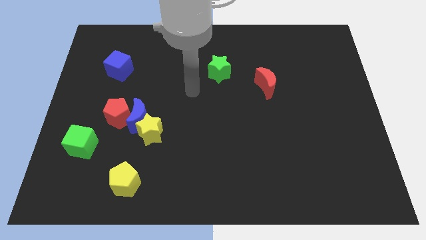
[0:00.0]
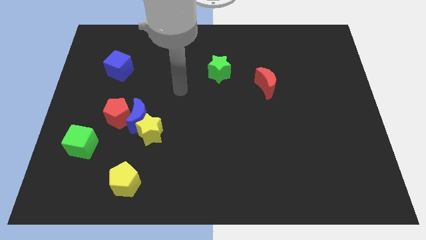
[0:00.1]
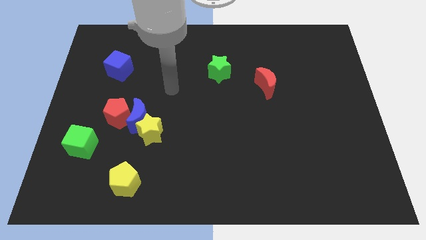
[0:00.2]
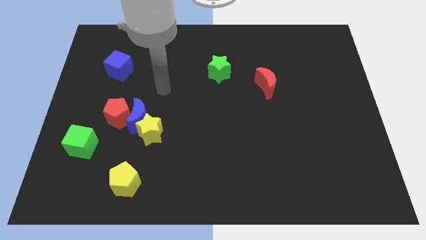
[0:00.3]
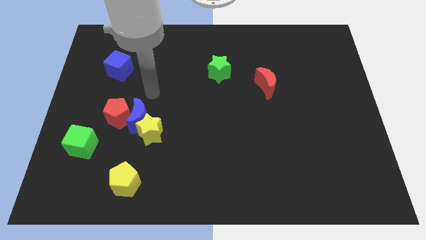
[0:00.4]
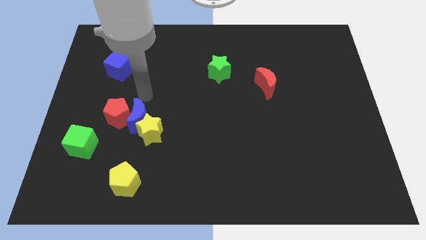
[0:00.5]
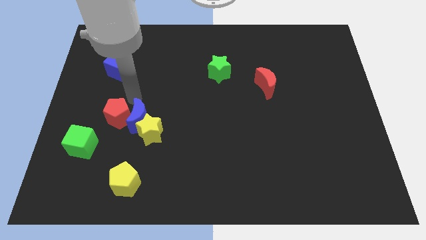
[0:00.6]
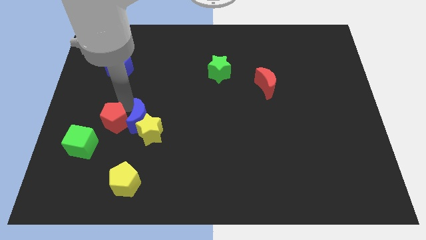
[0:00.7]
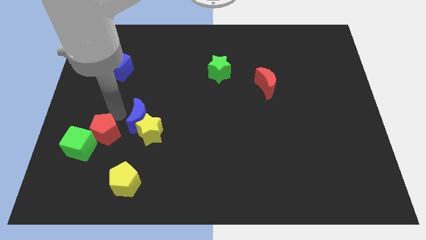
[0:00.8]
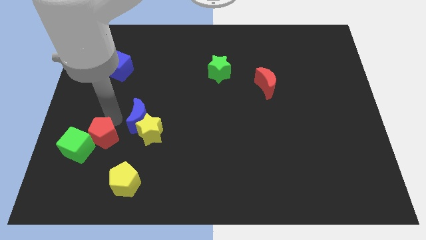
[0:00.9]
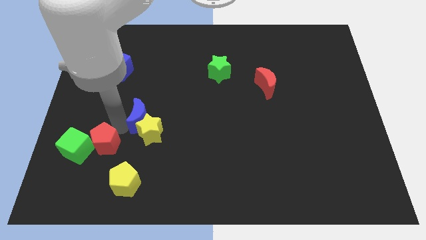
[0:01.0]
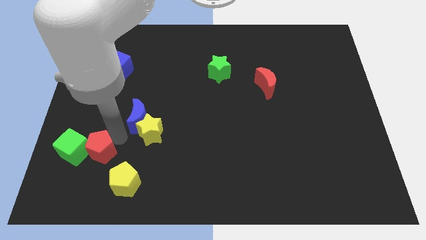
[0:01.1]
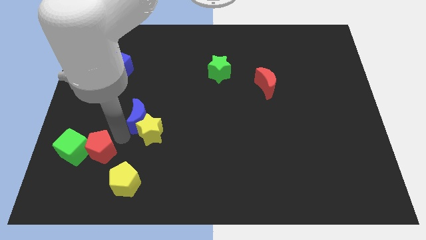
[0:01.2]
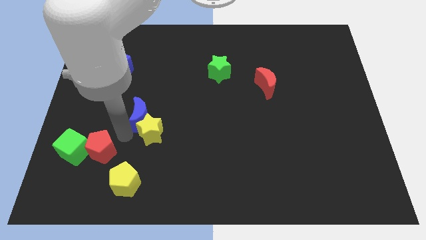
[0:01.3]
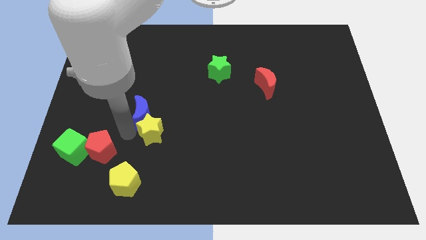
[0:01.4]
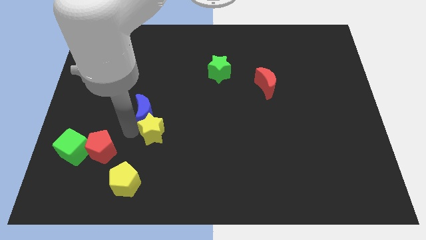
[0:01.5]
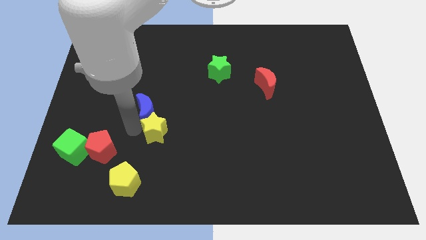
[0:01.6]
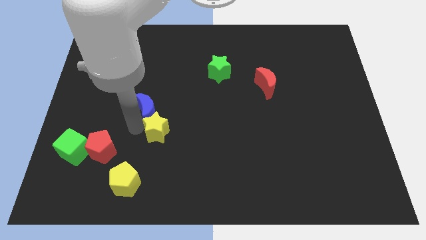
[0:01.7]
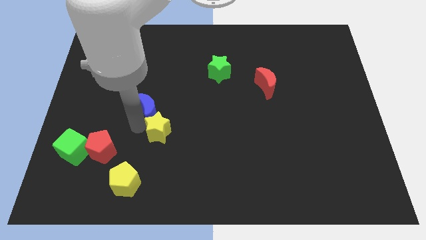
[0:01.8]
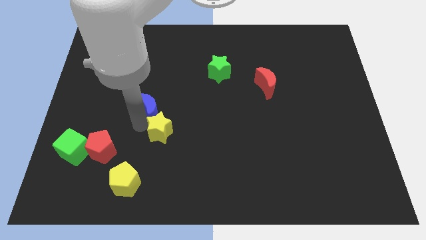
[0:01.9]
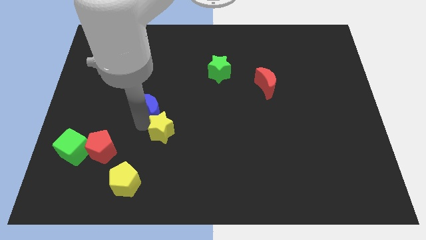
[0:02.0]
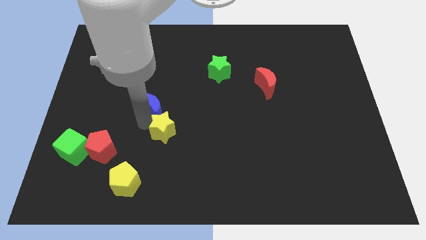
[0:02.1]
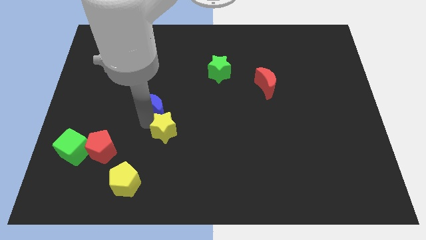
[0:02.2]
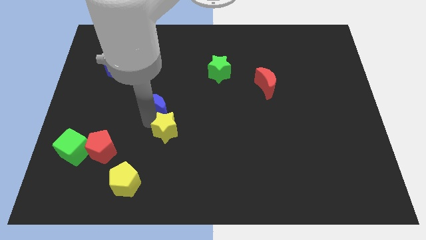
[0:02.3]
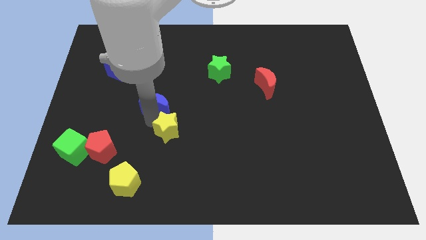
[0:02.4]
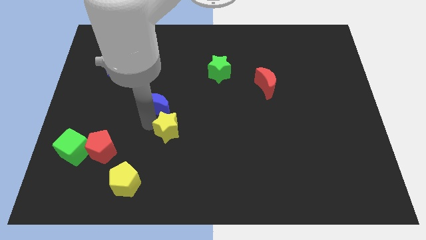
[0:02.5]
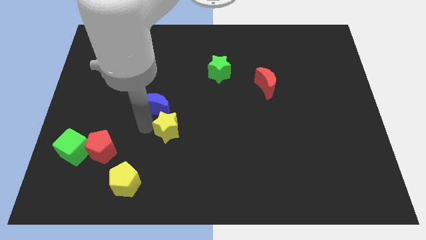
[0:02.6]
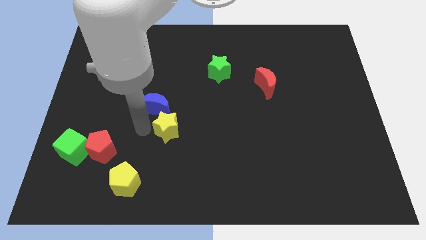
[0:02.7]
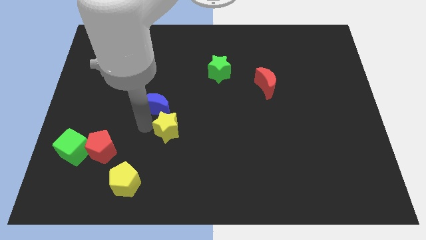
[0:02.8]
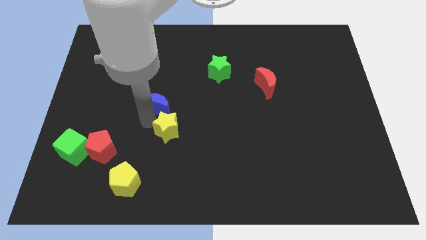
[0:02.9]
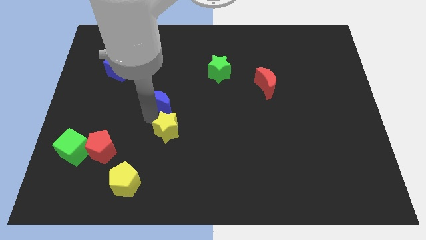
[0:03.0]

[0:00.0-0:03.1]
pull the blue moon apart from the yellow star and red pentagon

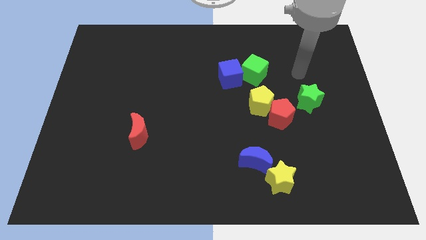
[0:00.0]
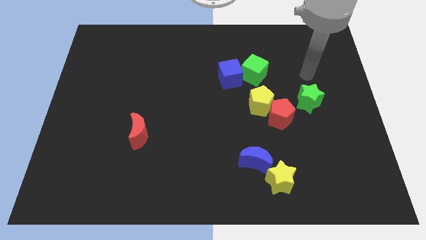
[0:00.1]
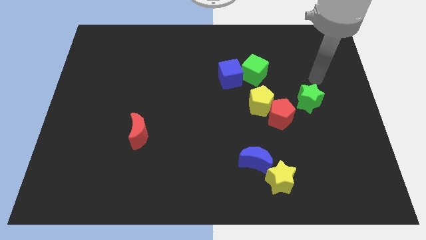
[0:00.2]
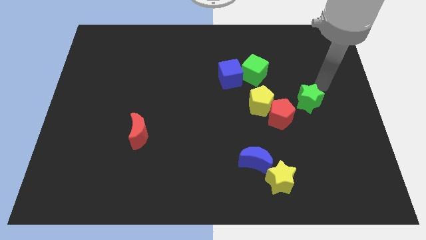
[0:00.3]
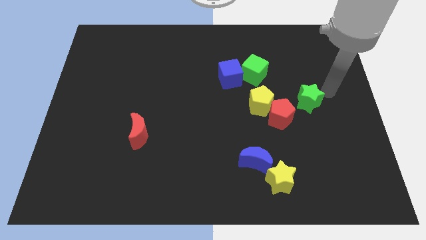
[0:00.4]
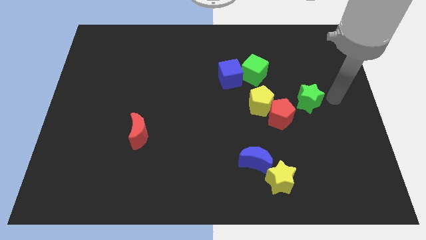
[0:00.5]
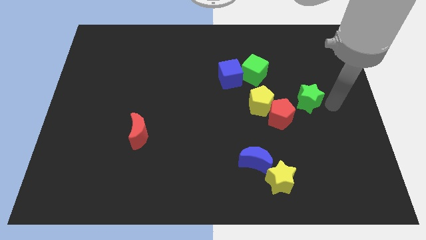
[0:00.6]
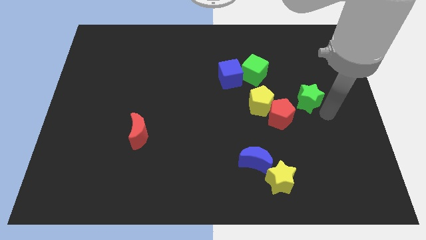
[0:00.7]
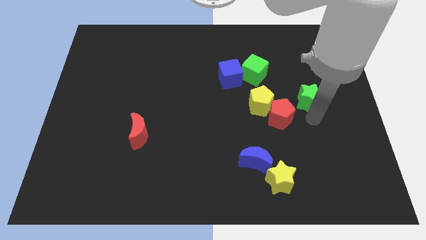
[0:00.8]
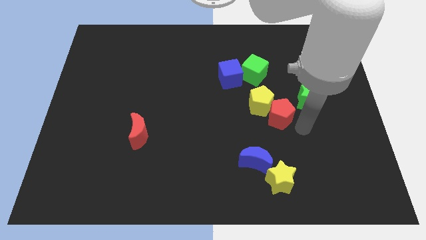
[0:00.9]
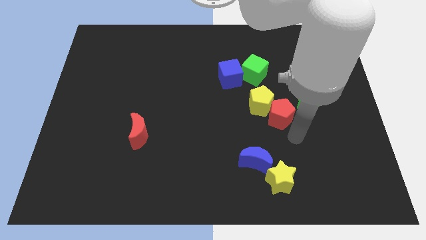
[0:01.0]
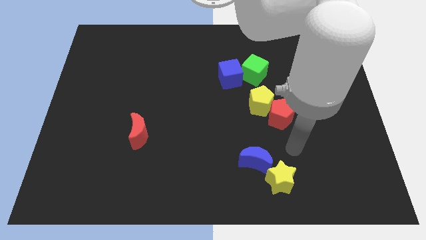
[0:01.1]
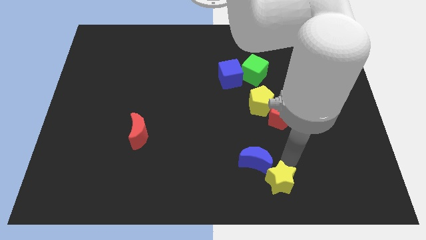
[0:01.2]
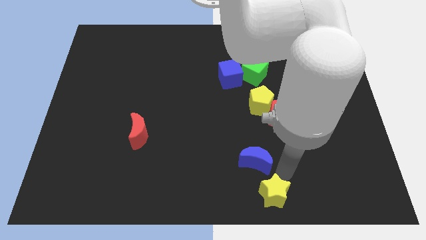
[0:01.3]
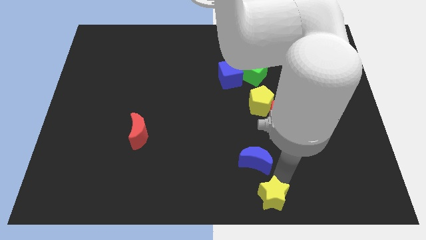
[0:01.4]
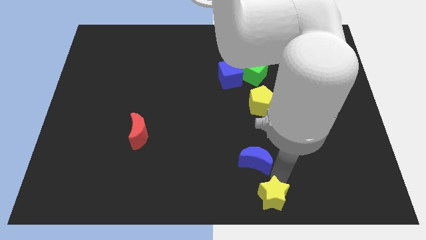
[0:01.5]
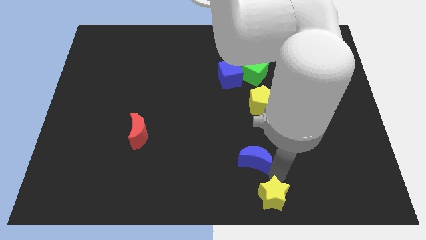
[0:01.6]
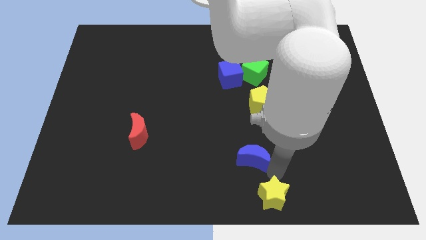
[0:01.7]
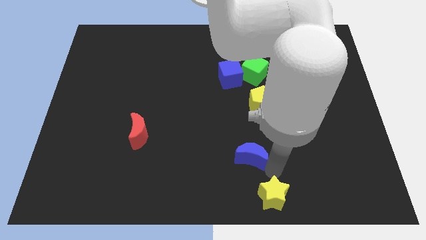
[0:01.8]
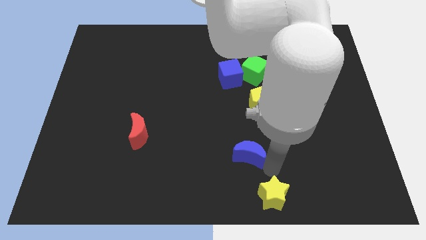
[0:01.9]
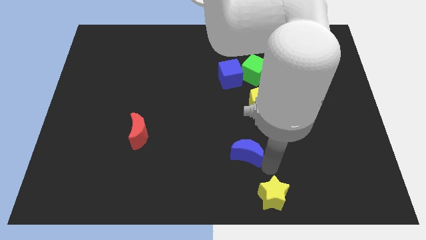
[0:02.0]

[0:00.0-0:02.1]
move the blue moon away from the yellow star

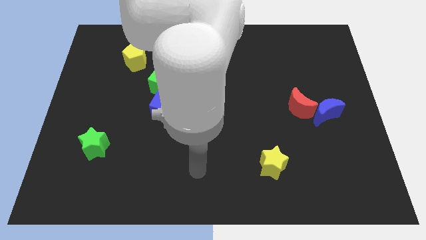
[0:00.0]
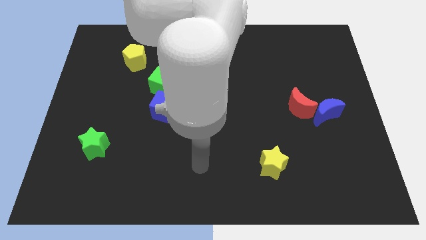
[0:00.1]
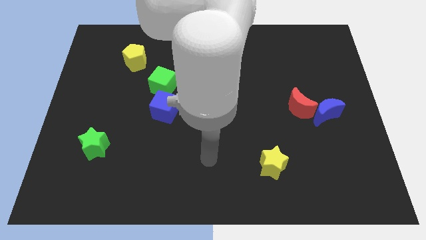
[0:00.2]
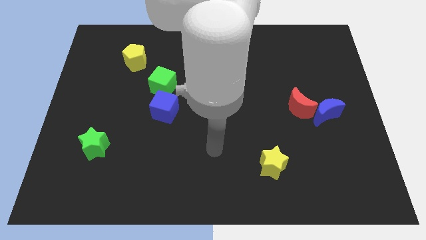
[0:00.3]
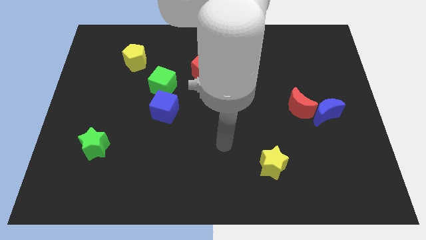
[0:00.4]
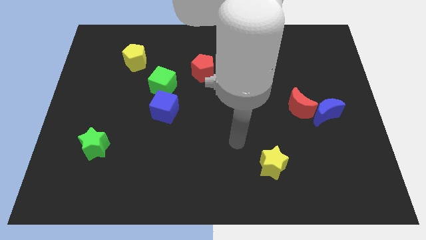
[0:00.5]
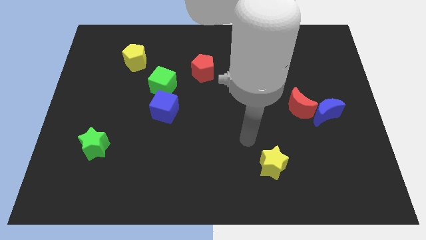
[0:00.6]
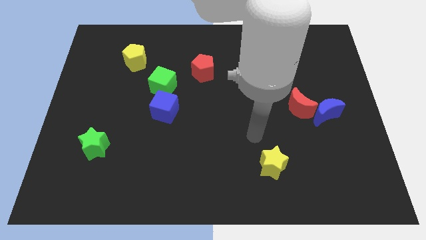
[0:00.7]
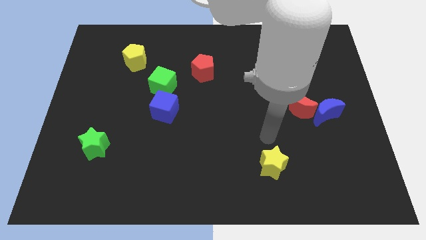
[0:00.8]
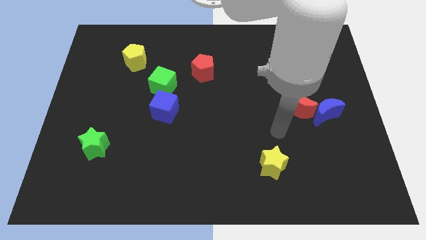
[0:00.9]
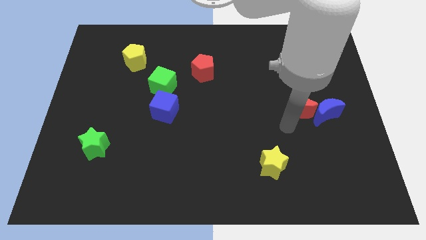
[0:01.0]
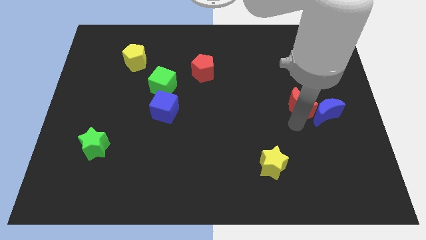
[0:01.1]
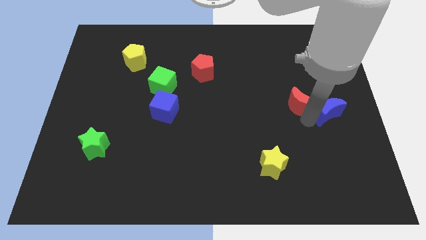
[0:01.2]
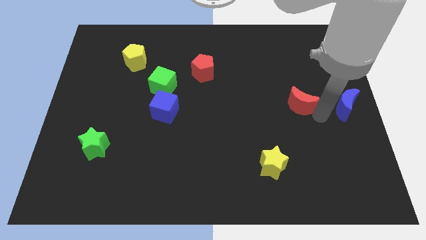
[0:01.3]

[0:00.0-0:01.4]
separate the red moon from the blue moon

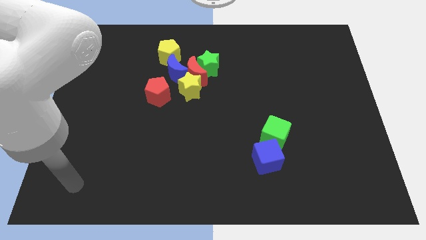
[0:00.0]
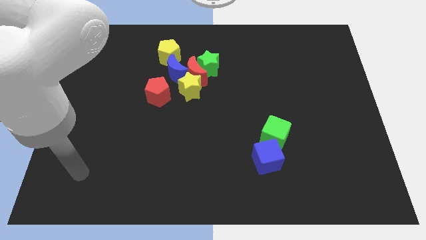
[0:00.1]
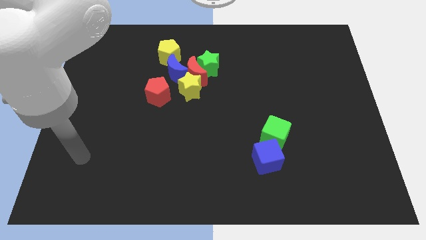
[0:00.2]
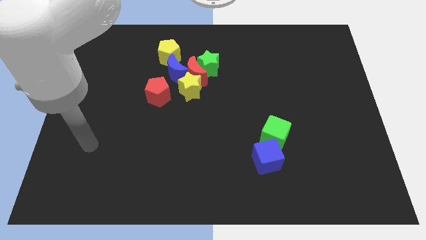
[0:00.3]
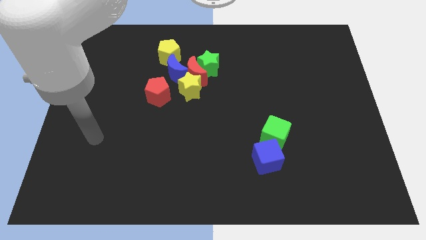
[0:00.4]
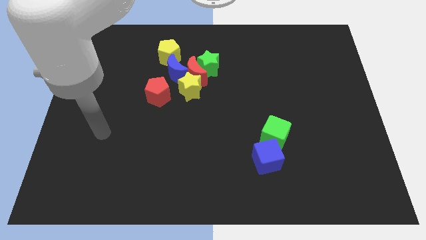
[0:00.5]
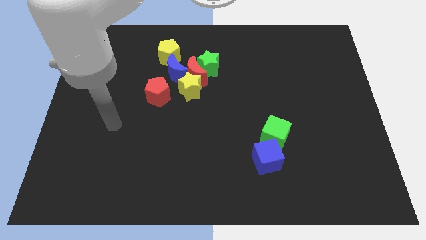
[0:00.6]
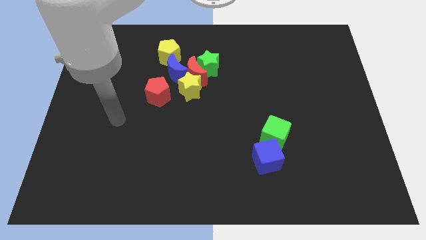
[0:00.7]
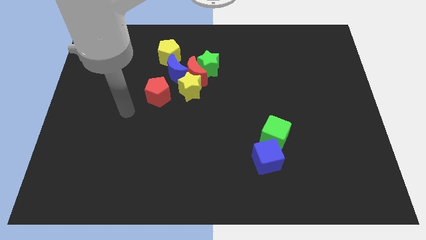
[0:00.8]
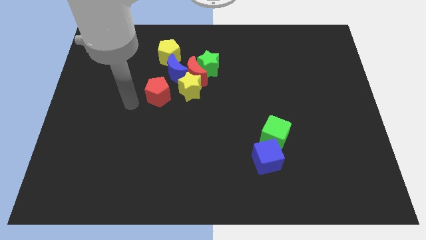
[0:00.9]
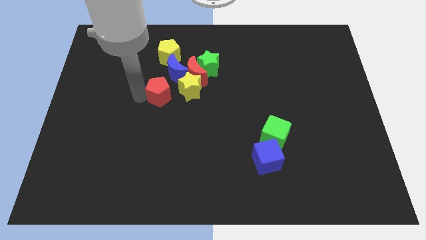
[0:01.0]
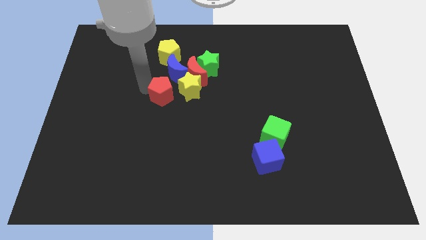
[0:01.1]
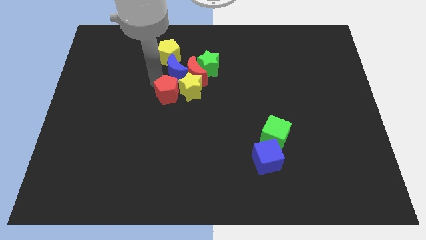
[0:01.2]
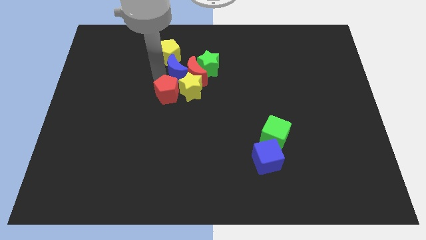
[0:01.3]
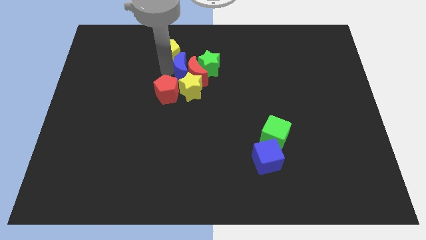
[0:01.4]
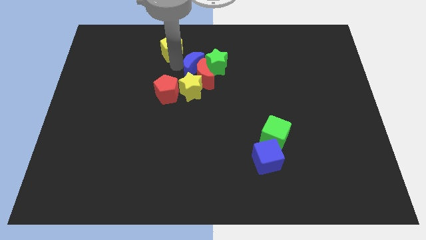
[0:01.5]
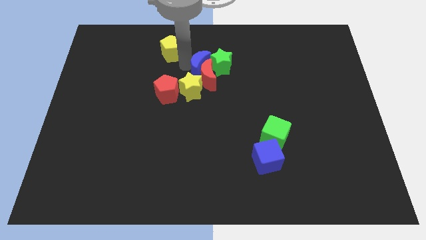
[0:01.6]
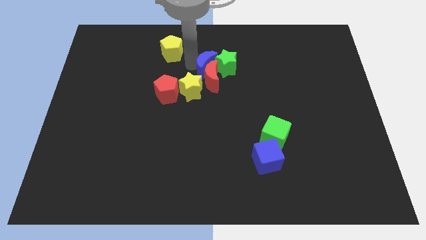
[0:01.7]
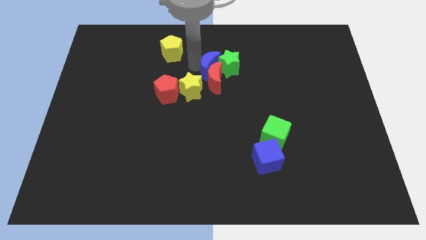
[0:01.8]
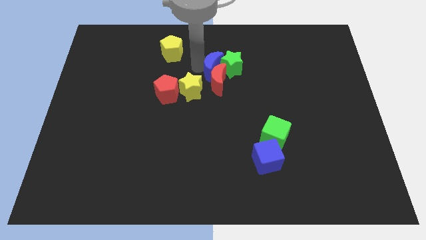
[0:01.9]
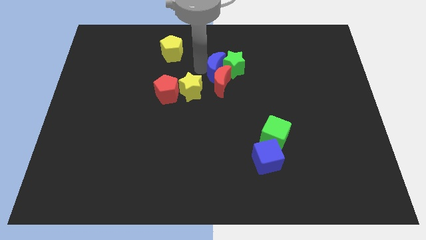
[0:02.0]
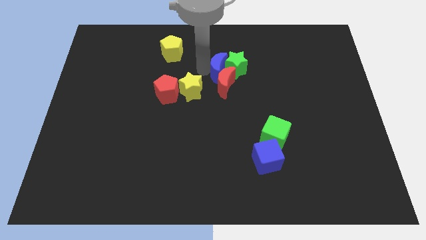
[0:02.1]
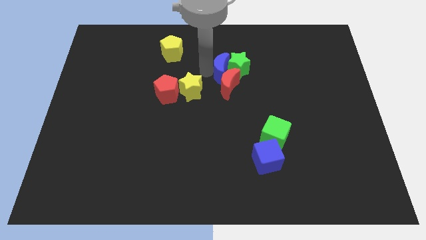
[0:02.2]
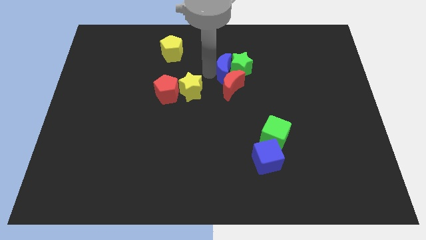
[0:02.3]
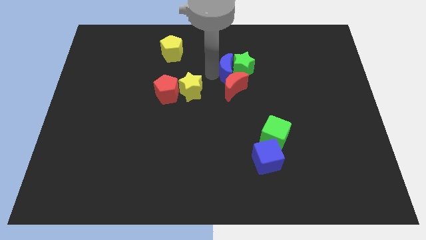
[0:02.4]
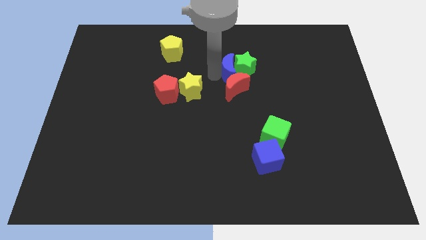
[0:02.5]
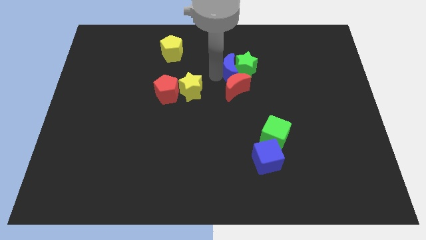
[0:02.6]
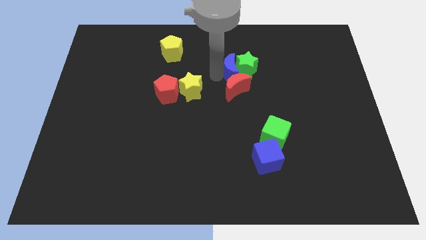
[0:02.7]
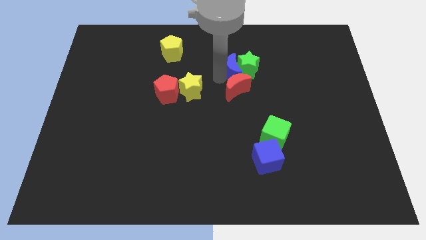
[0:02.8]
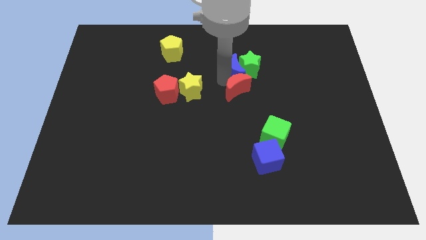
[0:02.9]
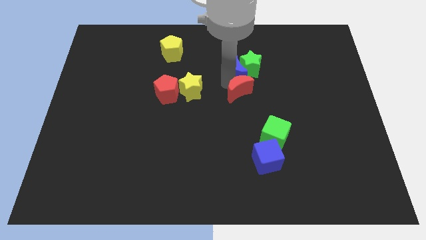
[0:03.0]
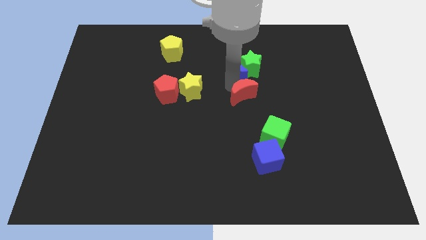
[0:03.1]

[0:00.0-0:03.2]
move the red moon away from the clump
